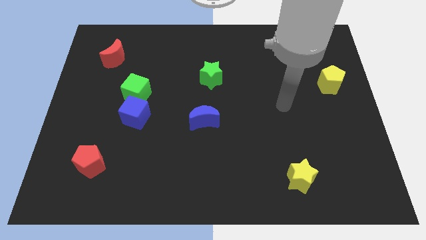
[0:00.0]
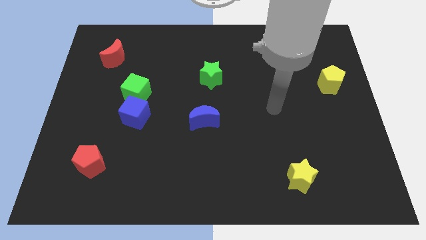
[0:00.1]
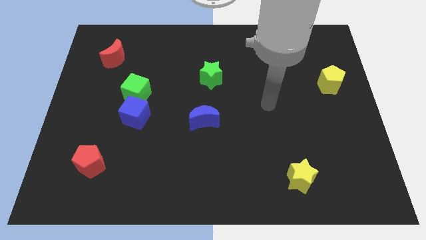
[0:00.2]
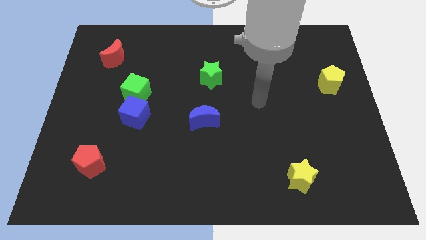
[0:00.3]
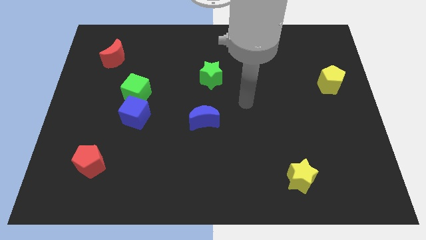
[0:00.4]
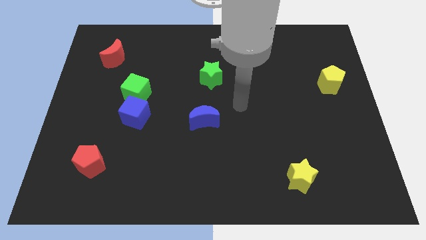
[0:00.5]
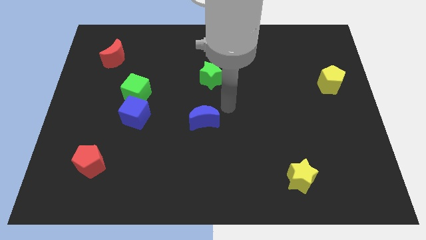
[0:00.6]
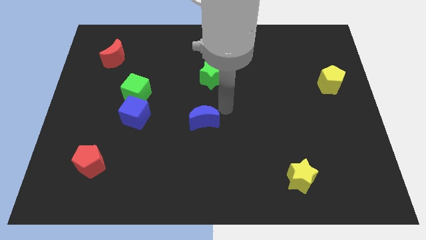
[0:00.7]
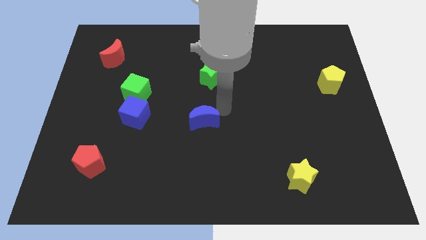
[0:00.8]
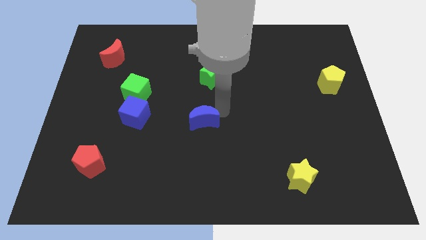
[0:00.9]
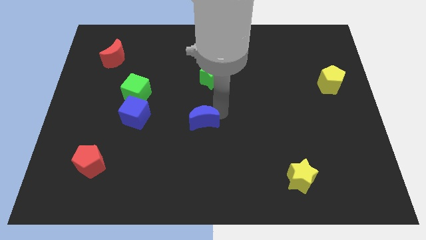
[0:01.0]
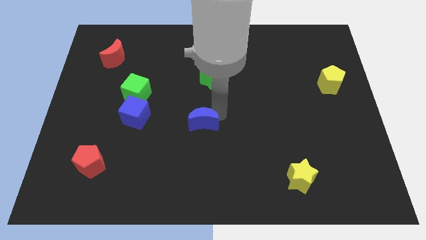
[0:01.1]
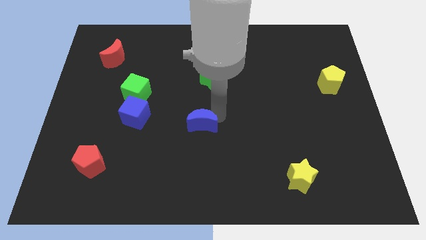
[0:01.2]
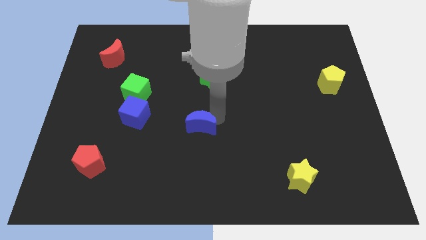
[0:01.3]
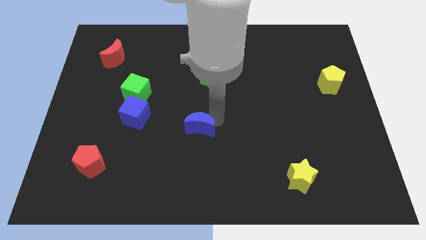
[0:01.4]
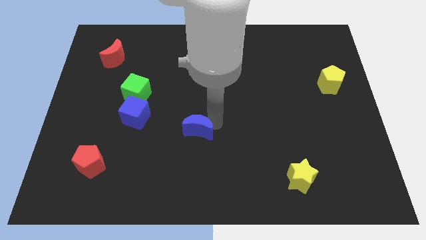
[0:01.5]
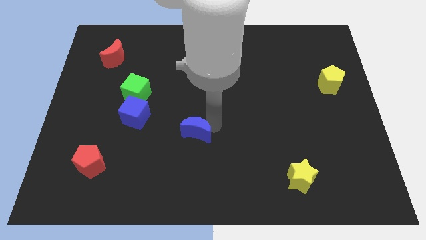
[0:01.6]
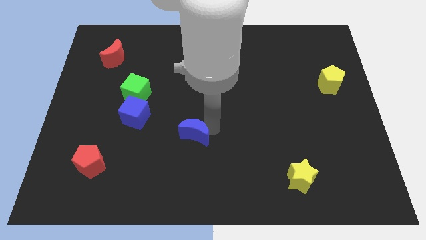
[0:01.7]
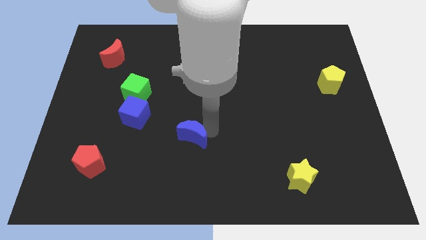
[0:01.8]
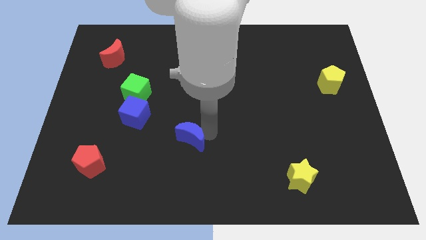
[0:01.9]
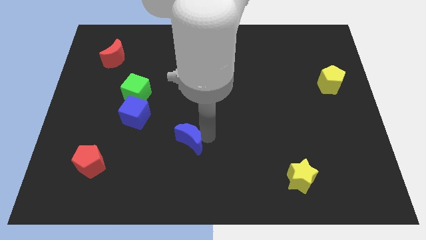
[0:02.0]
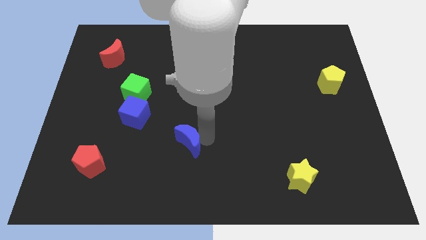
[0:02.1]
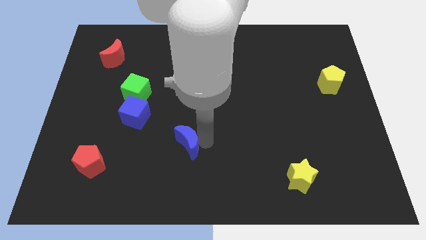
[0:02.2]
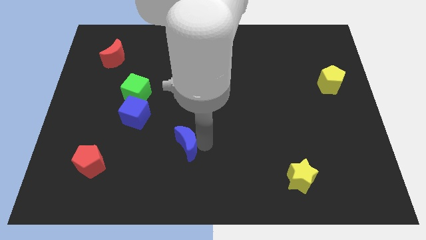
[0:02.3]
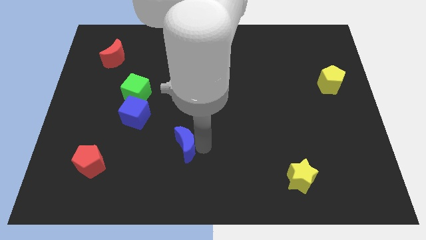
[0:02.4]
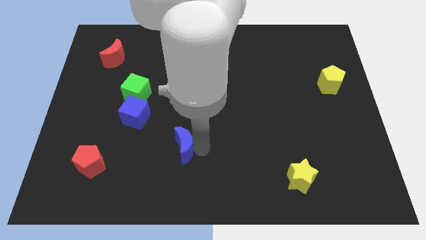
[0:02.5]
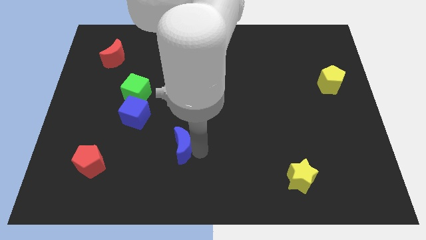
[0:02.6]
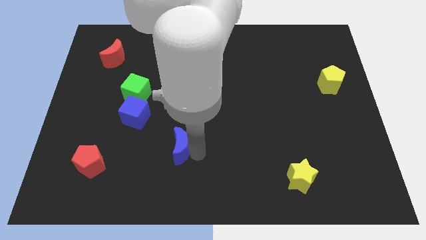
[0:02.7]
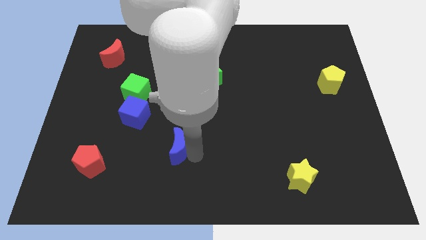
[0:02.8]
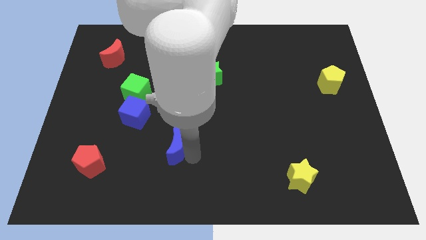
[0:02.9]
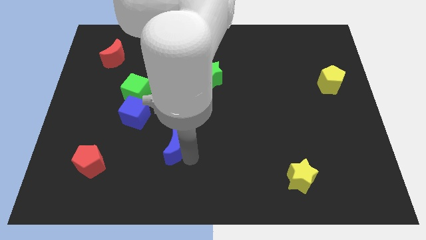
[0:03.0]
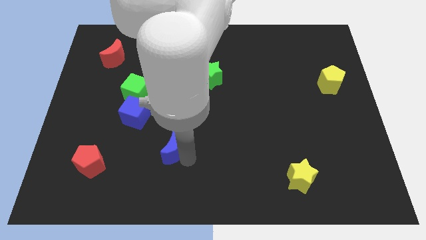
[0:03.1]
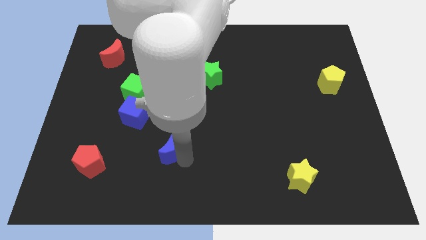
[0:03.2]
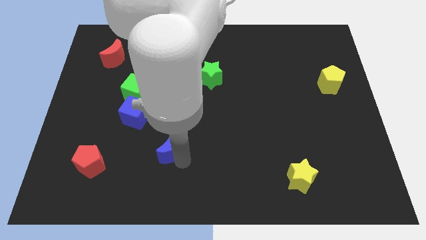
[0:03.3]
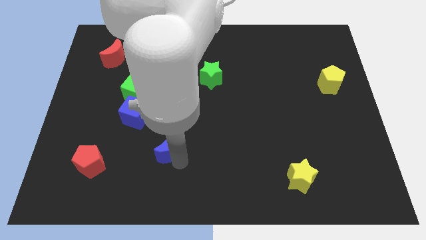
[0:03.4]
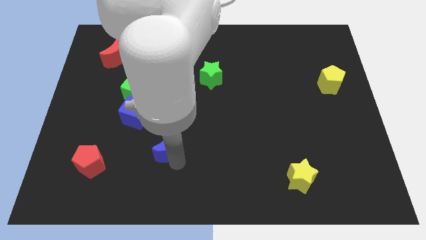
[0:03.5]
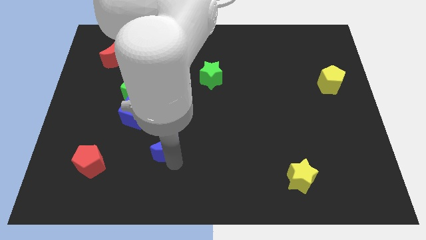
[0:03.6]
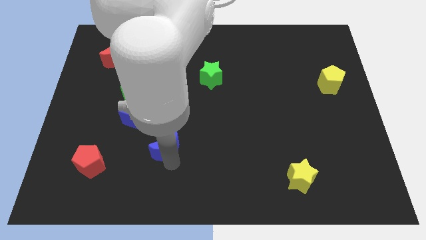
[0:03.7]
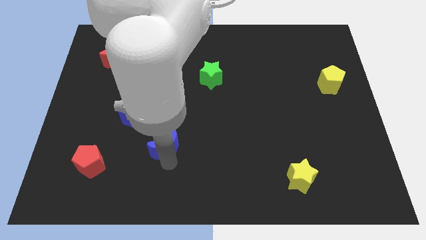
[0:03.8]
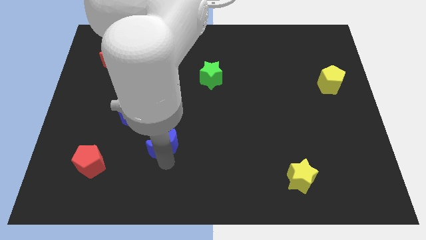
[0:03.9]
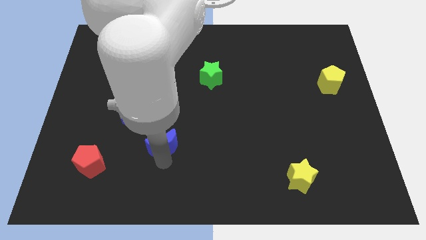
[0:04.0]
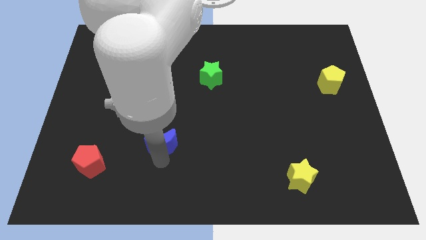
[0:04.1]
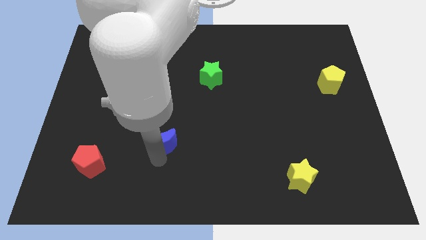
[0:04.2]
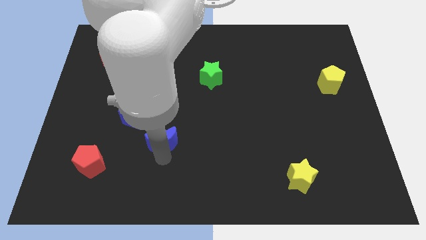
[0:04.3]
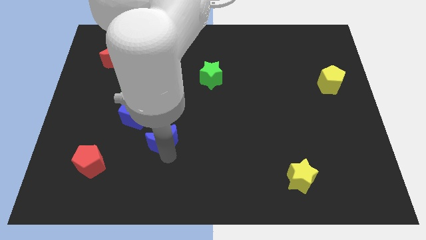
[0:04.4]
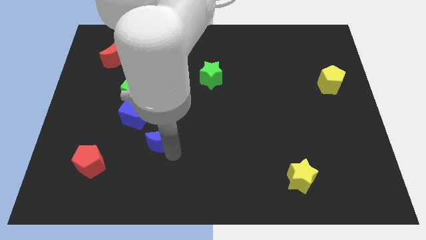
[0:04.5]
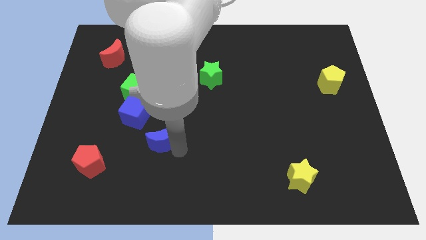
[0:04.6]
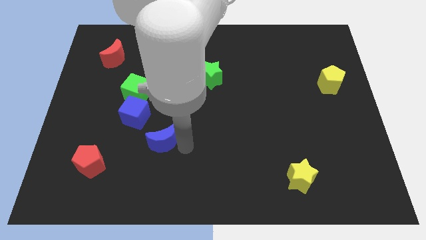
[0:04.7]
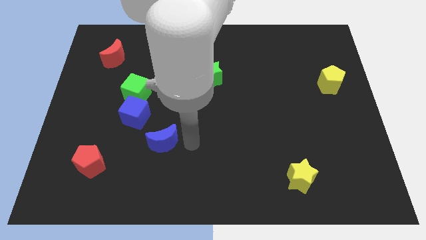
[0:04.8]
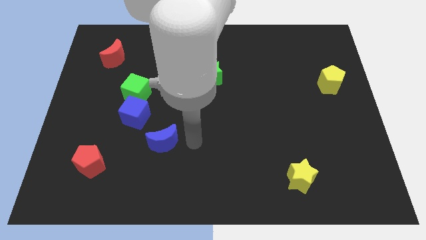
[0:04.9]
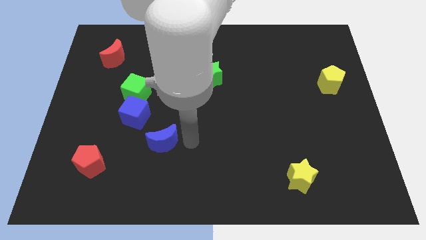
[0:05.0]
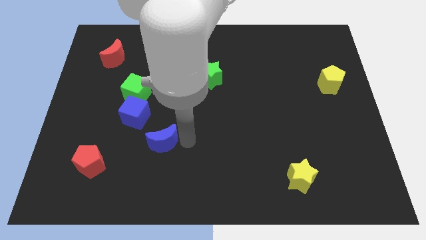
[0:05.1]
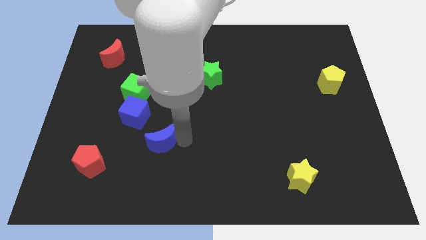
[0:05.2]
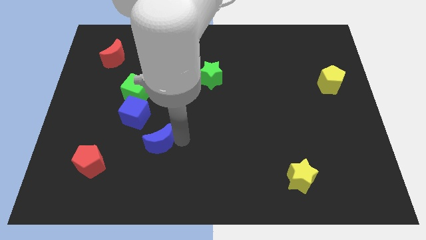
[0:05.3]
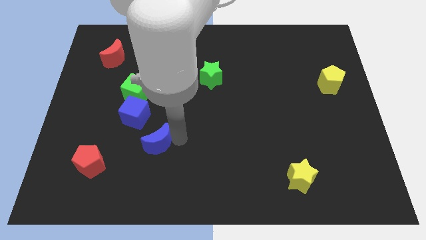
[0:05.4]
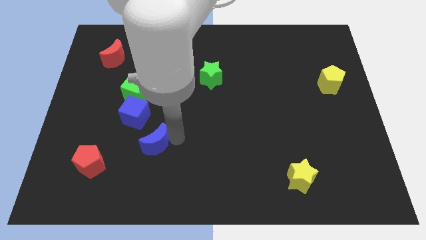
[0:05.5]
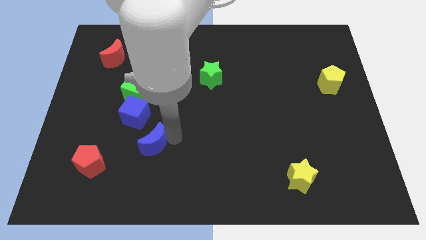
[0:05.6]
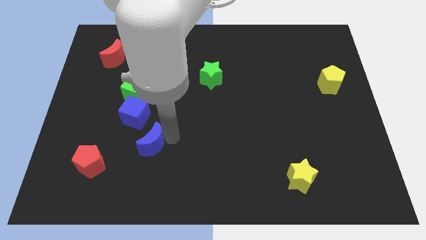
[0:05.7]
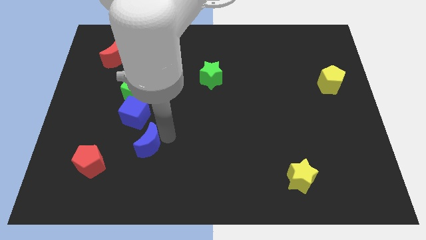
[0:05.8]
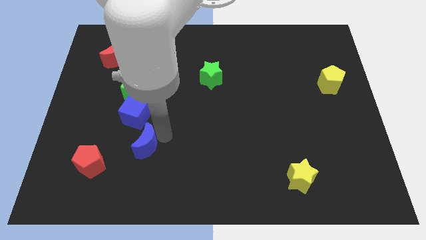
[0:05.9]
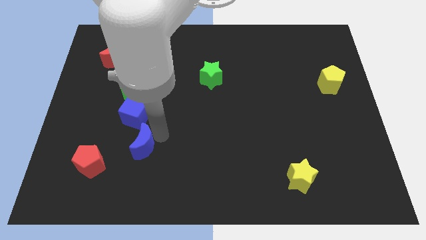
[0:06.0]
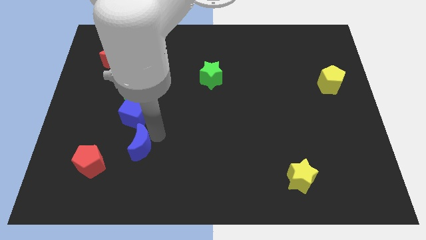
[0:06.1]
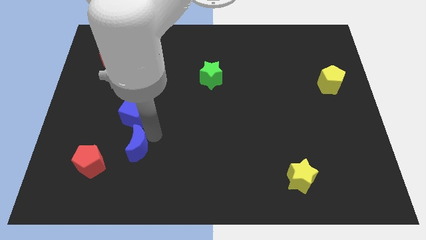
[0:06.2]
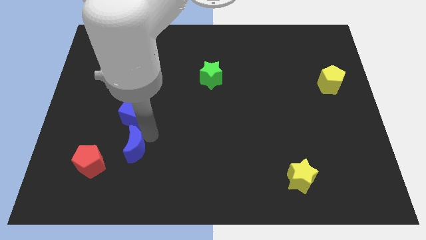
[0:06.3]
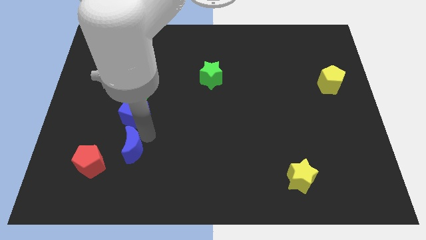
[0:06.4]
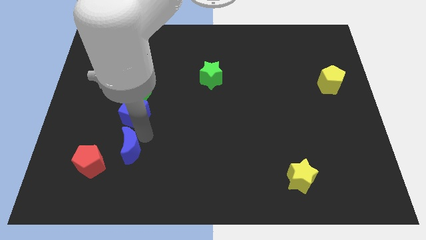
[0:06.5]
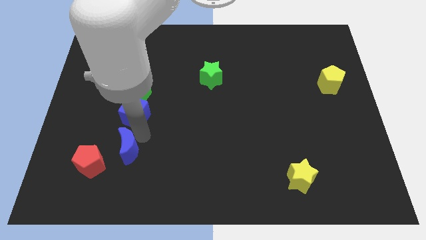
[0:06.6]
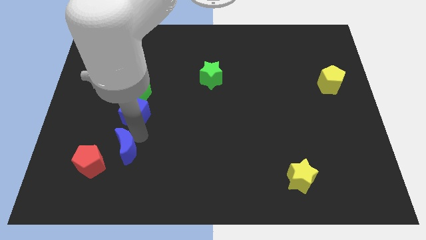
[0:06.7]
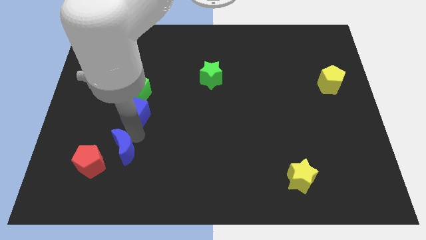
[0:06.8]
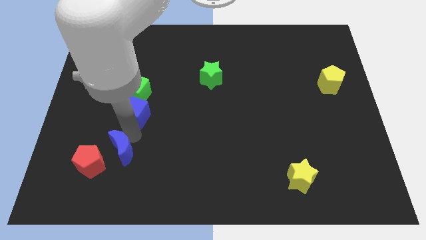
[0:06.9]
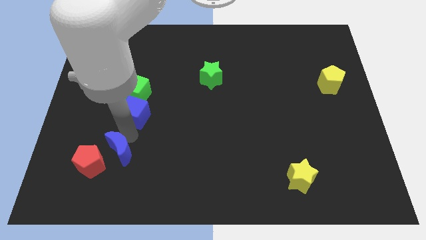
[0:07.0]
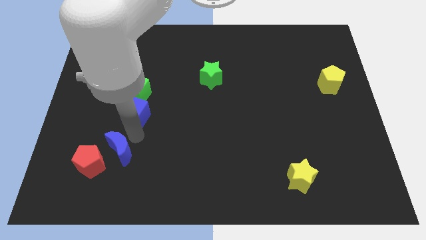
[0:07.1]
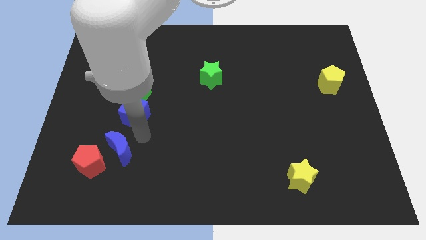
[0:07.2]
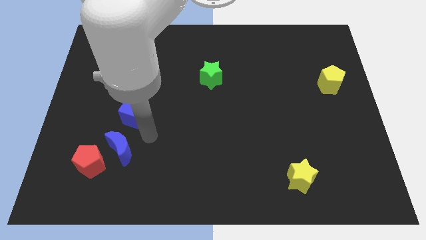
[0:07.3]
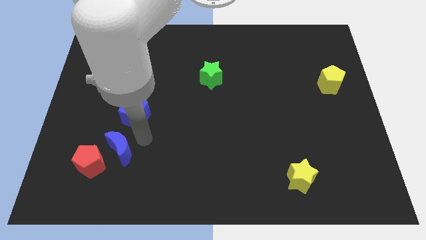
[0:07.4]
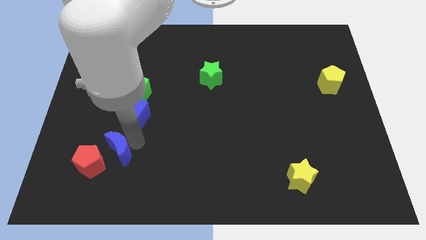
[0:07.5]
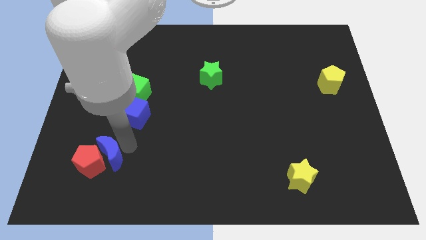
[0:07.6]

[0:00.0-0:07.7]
put the blue moon to the red pentagon
